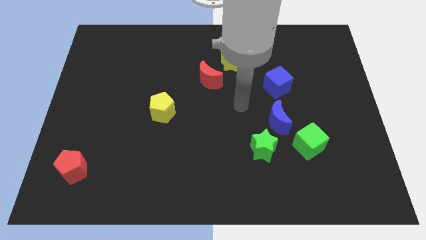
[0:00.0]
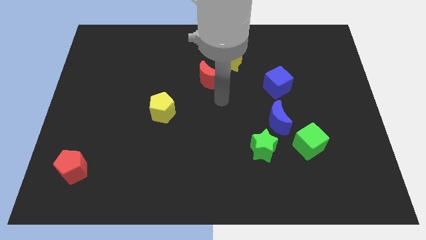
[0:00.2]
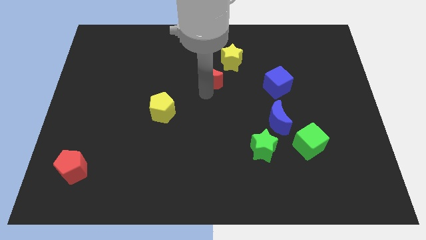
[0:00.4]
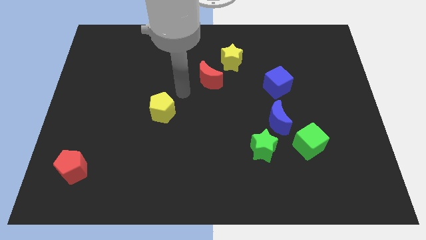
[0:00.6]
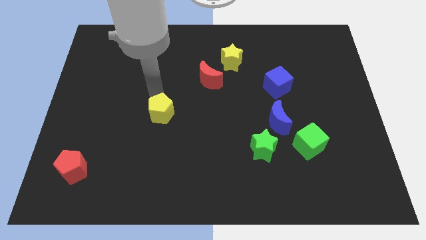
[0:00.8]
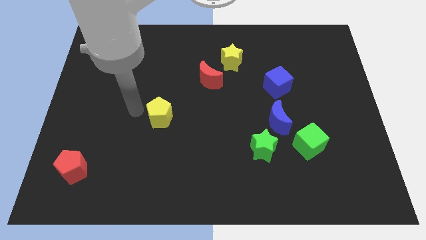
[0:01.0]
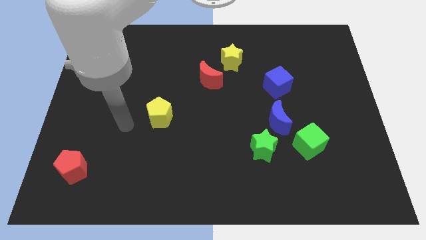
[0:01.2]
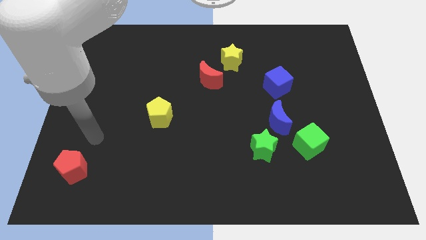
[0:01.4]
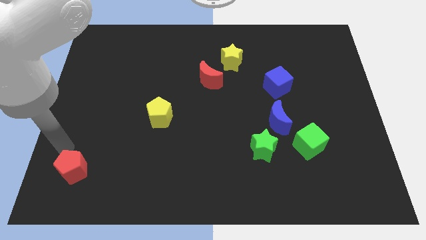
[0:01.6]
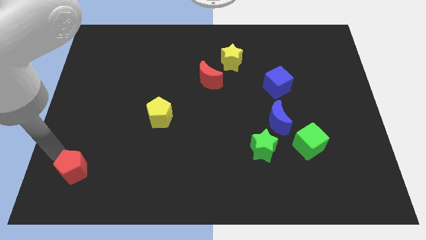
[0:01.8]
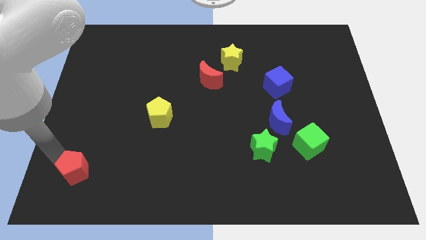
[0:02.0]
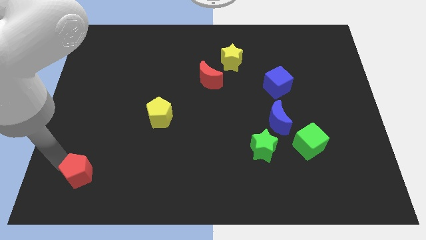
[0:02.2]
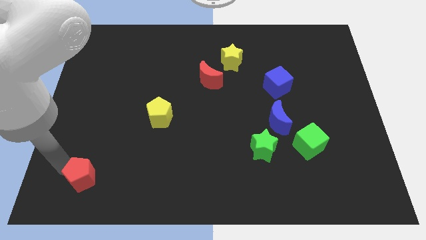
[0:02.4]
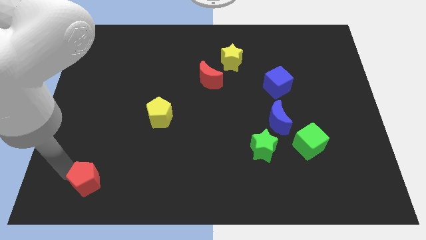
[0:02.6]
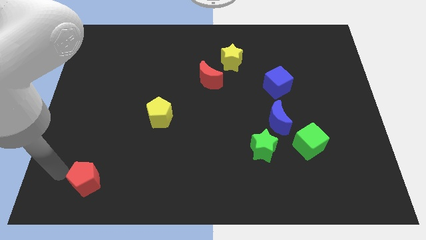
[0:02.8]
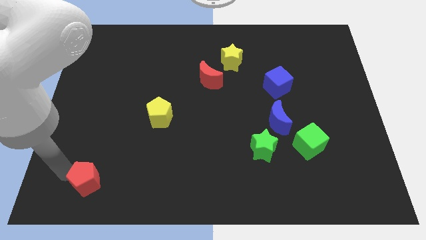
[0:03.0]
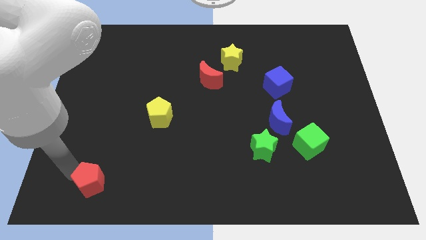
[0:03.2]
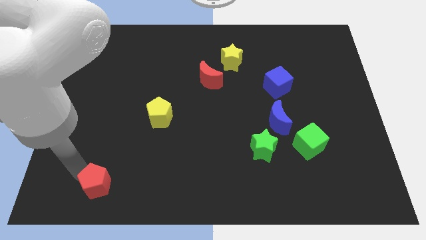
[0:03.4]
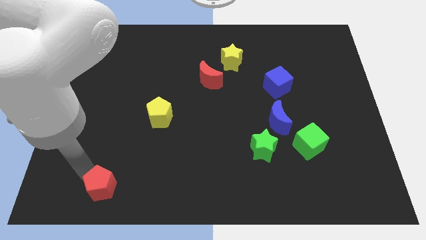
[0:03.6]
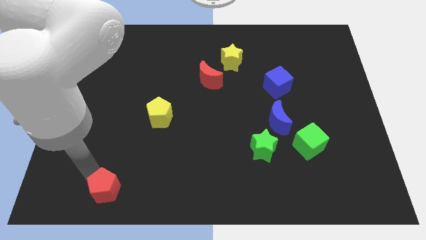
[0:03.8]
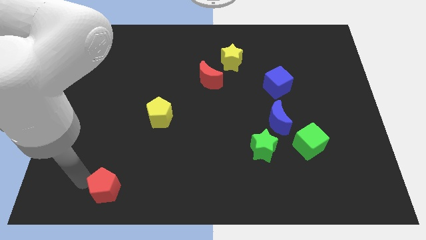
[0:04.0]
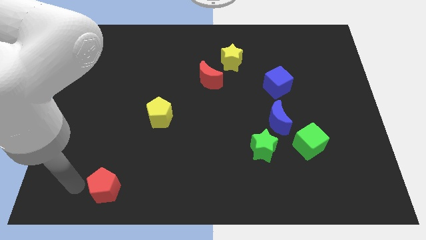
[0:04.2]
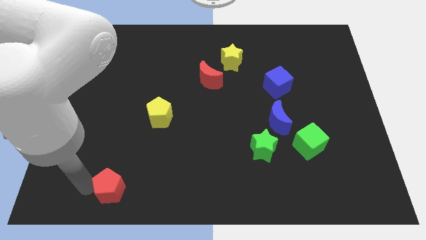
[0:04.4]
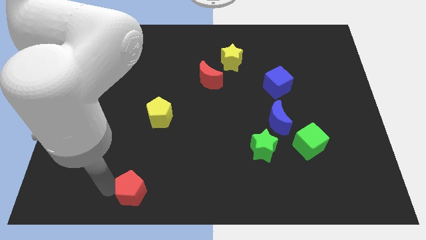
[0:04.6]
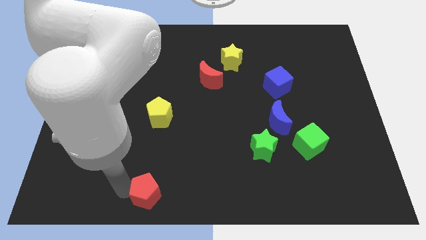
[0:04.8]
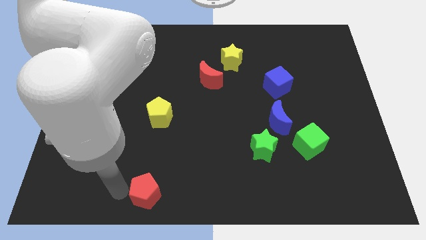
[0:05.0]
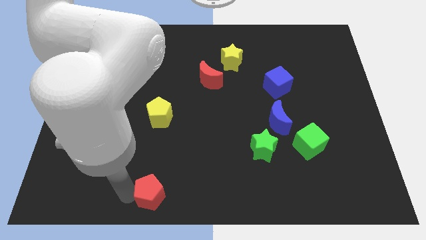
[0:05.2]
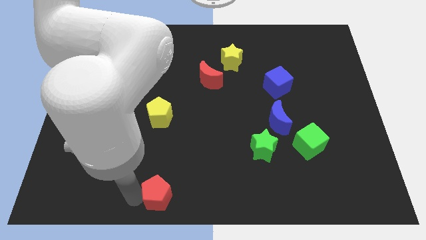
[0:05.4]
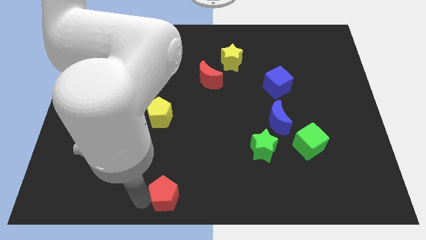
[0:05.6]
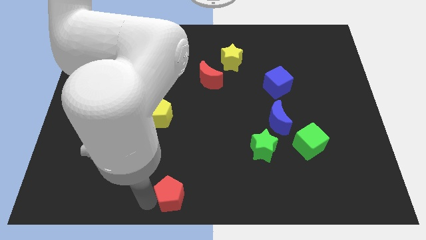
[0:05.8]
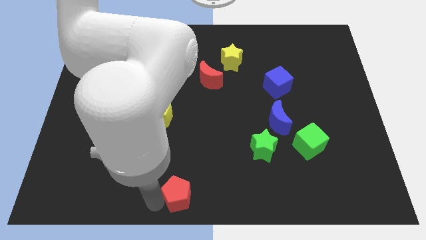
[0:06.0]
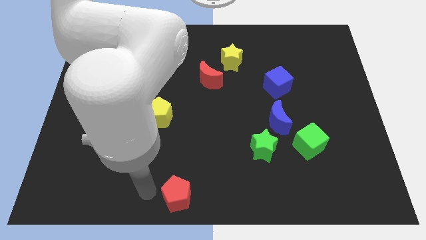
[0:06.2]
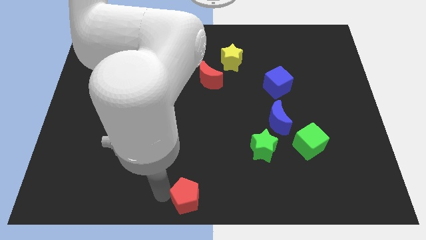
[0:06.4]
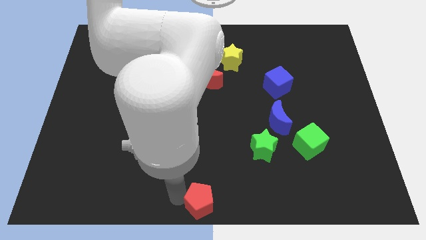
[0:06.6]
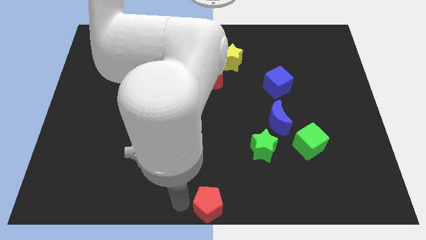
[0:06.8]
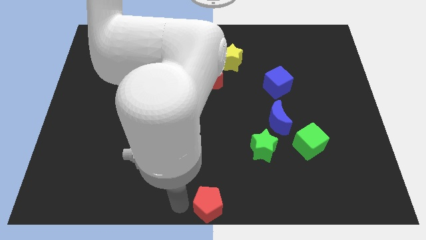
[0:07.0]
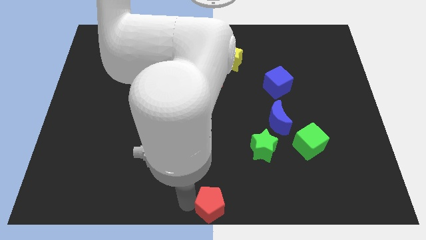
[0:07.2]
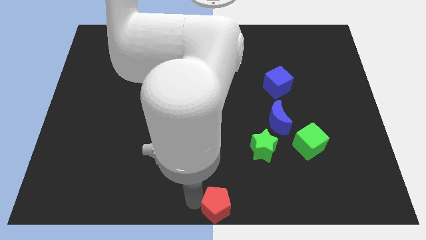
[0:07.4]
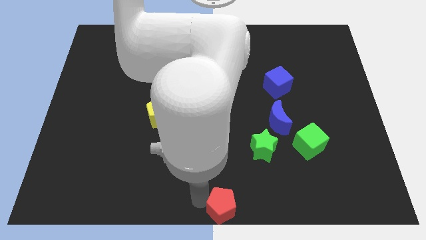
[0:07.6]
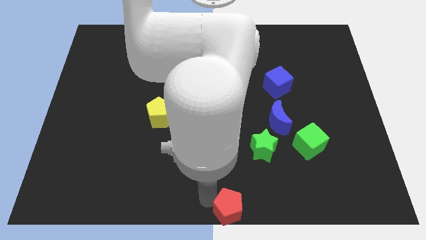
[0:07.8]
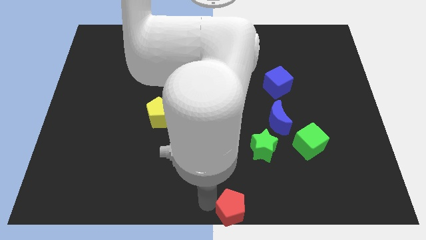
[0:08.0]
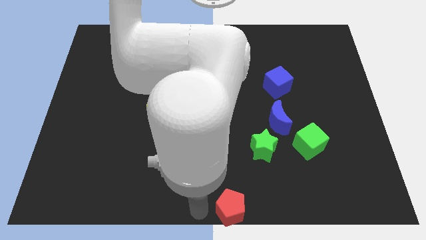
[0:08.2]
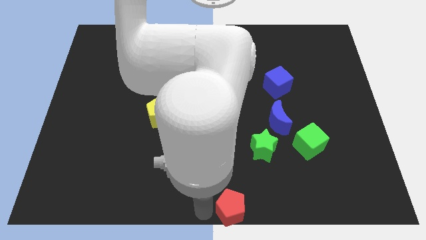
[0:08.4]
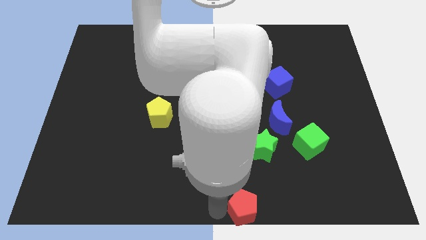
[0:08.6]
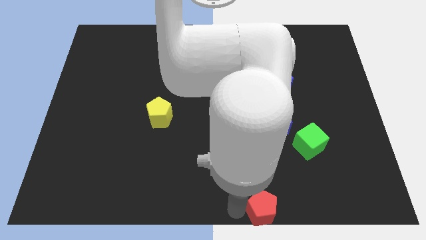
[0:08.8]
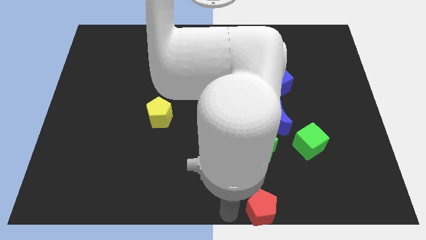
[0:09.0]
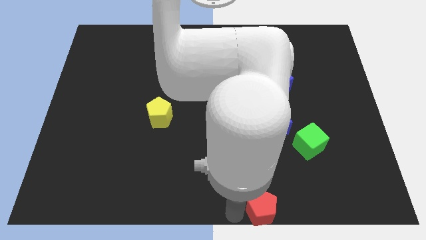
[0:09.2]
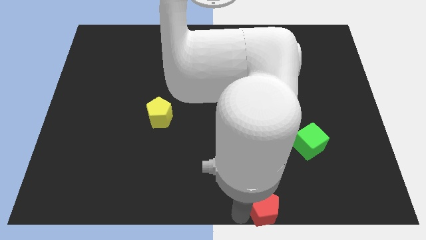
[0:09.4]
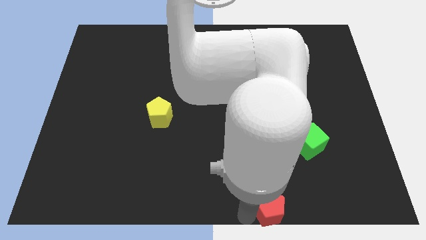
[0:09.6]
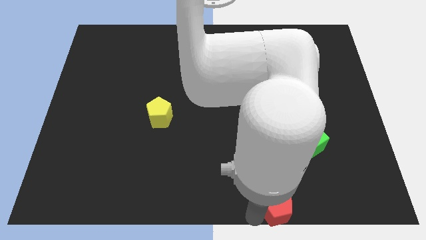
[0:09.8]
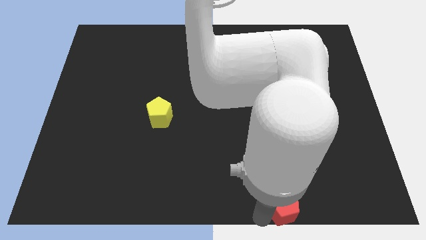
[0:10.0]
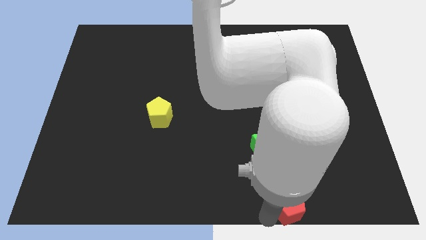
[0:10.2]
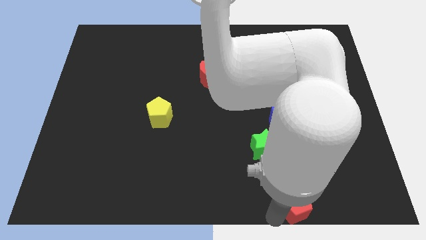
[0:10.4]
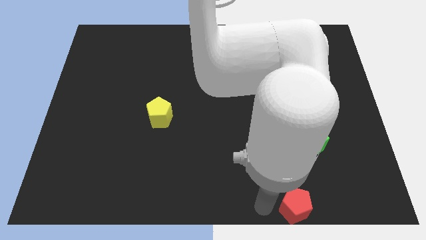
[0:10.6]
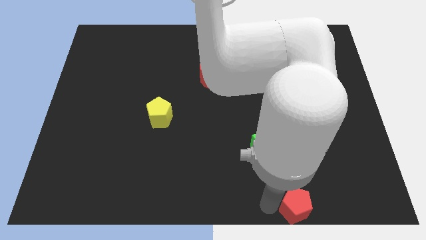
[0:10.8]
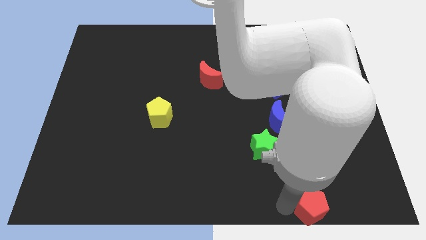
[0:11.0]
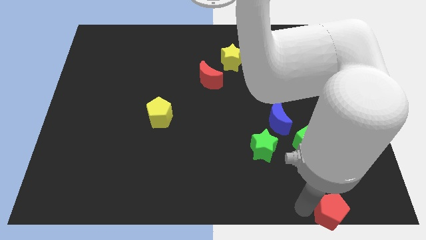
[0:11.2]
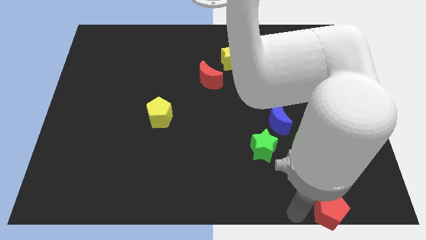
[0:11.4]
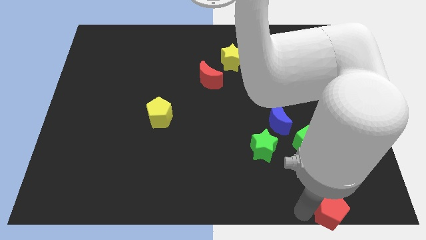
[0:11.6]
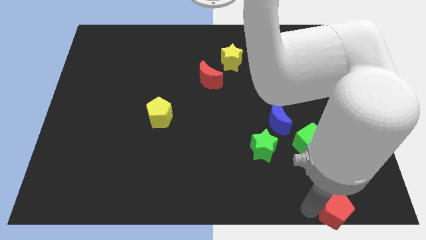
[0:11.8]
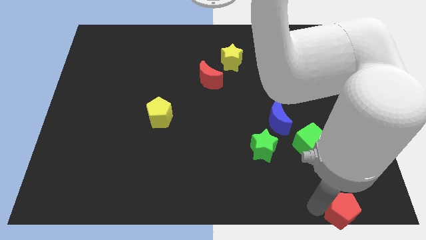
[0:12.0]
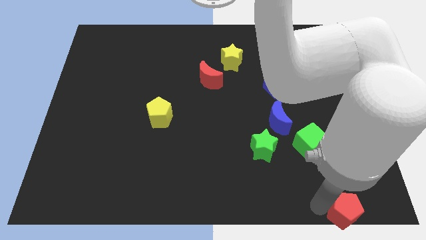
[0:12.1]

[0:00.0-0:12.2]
push the red pentagon to the bottom right corner
